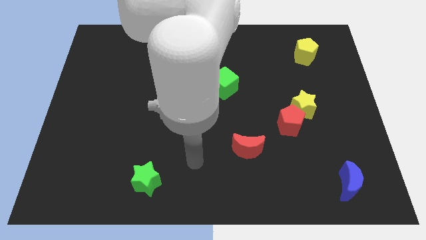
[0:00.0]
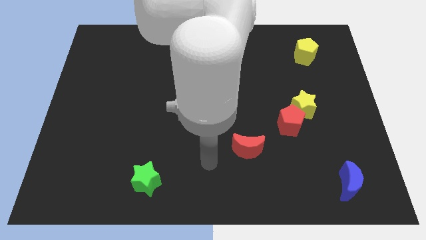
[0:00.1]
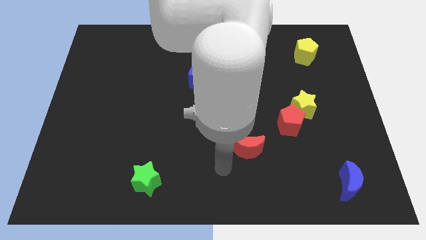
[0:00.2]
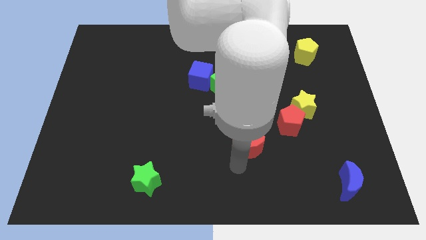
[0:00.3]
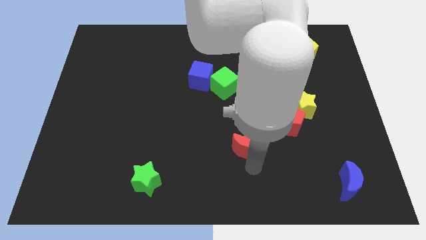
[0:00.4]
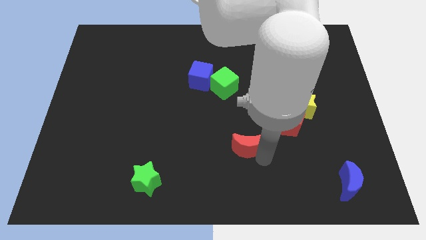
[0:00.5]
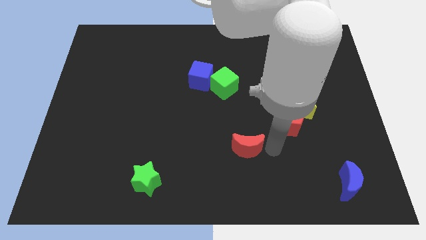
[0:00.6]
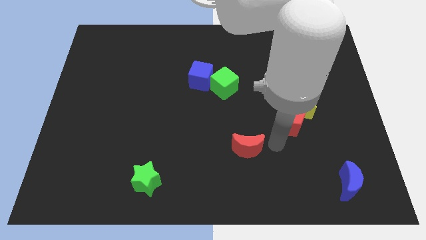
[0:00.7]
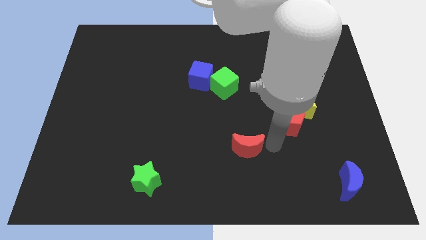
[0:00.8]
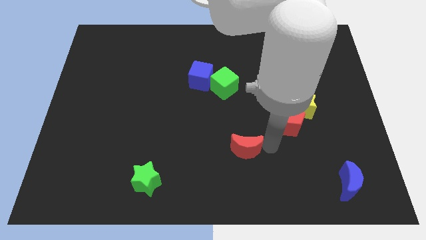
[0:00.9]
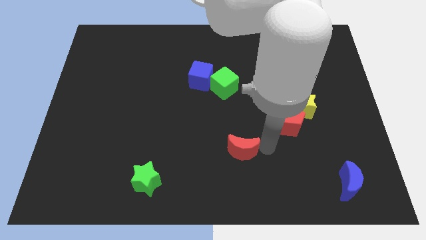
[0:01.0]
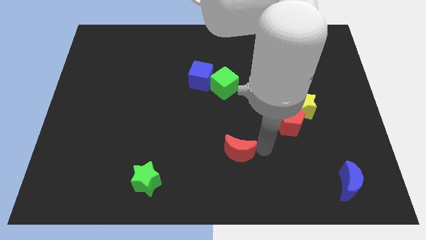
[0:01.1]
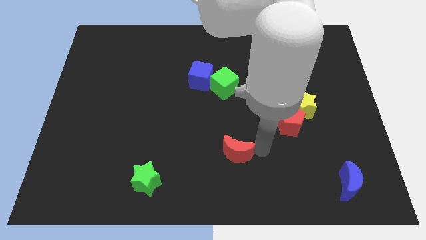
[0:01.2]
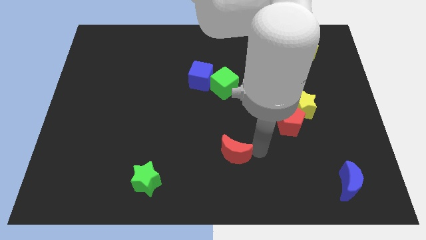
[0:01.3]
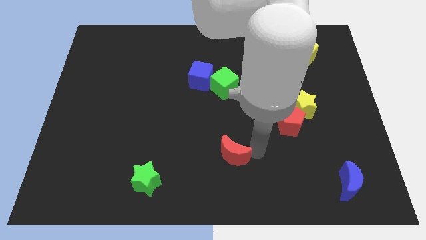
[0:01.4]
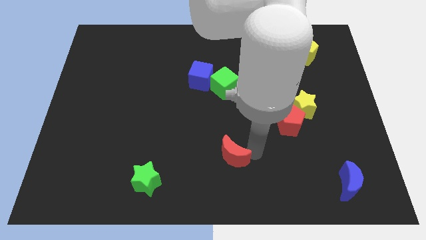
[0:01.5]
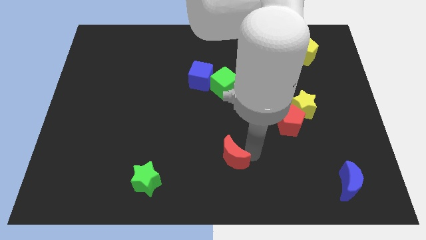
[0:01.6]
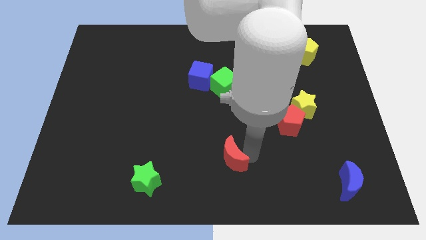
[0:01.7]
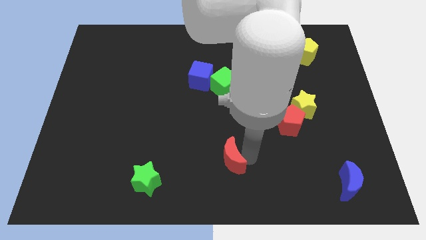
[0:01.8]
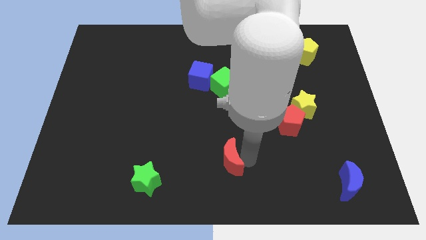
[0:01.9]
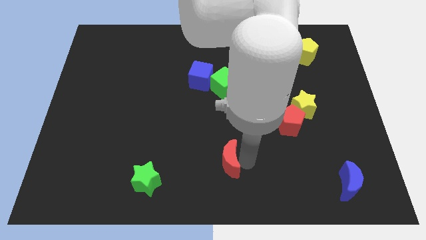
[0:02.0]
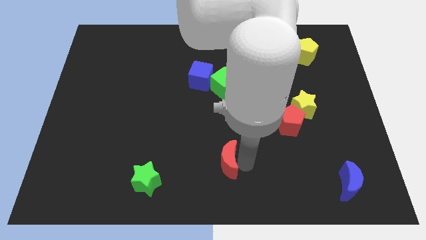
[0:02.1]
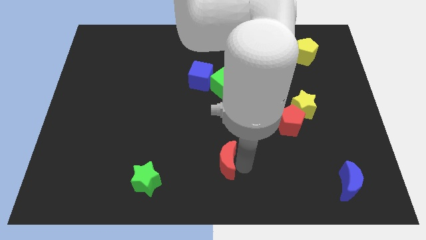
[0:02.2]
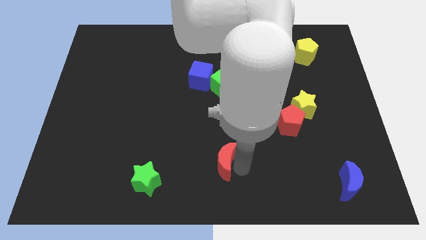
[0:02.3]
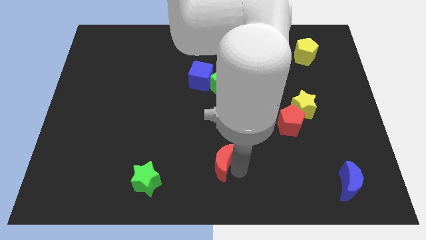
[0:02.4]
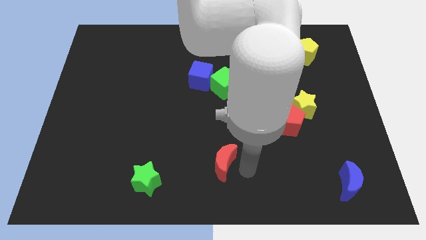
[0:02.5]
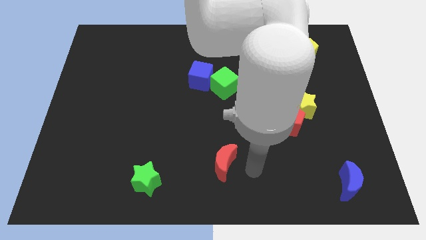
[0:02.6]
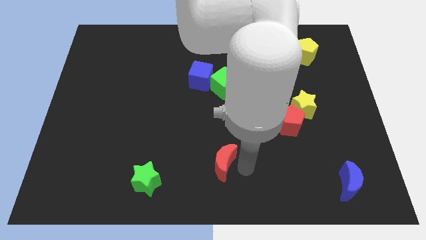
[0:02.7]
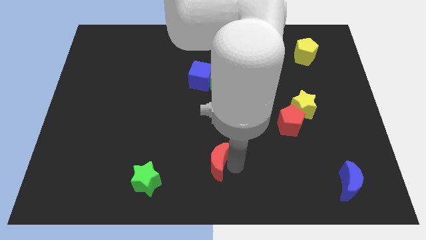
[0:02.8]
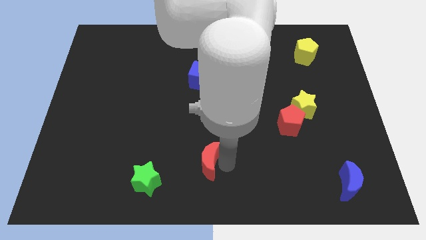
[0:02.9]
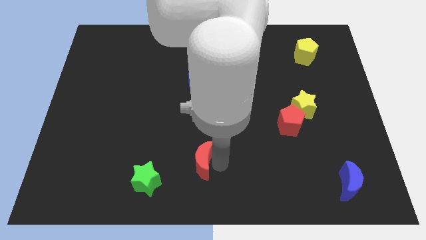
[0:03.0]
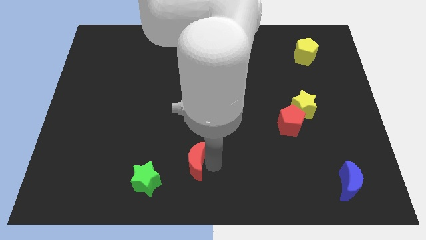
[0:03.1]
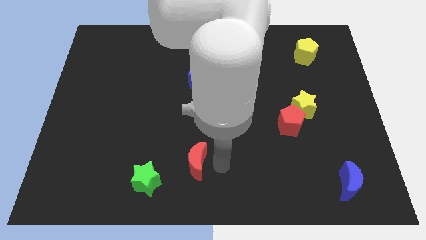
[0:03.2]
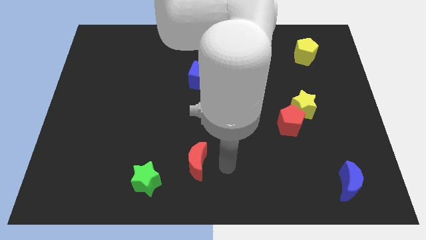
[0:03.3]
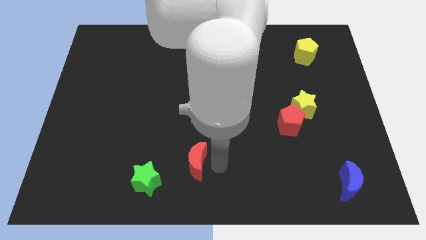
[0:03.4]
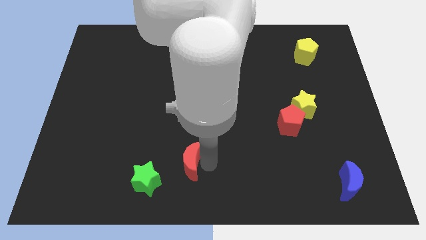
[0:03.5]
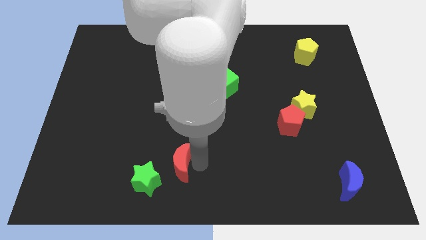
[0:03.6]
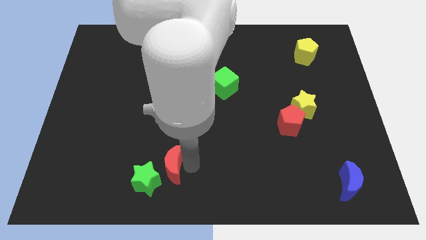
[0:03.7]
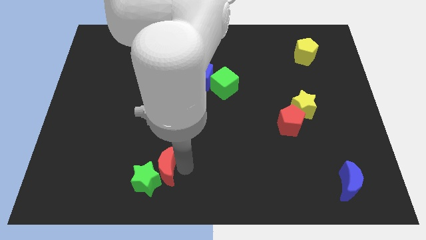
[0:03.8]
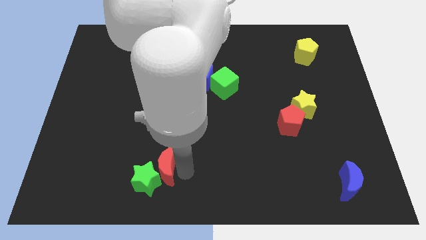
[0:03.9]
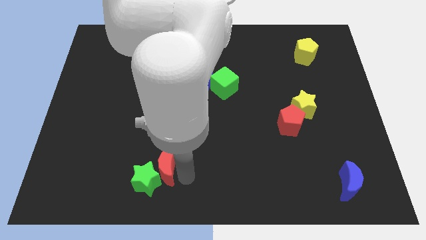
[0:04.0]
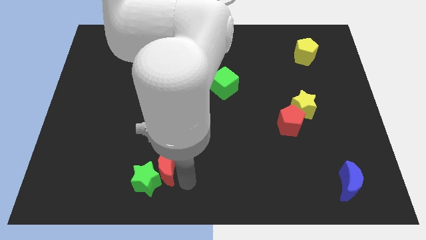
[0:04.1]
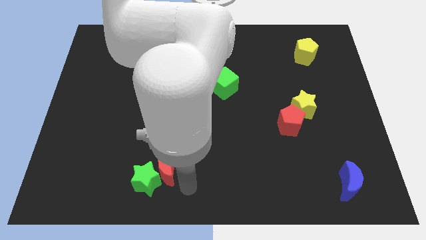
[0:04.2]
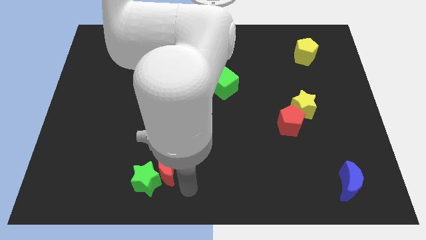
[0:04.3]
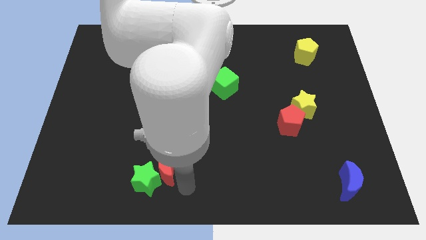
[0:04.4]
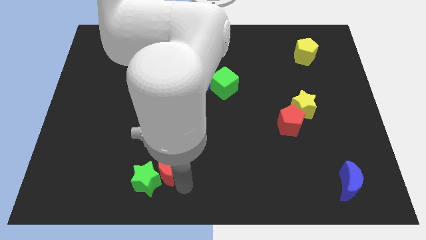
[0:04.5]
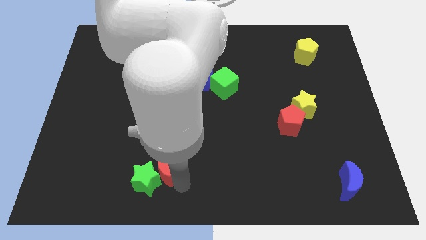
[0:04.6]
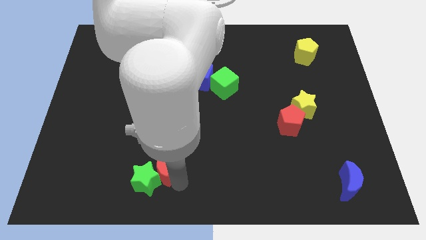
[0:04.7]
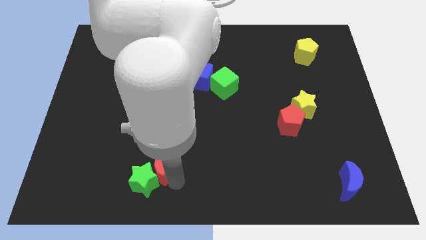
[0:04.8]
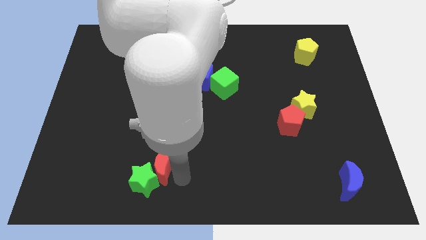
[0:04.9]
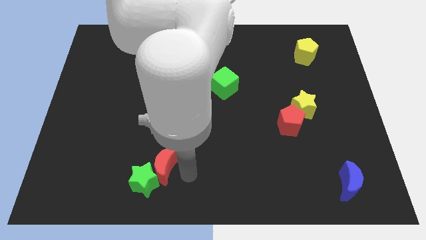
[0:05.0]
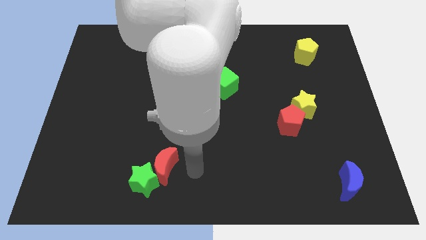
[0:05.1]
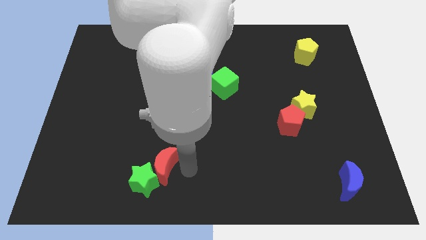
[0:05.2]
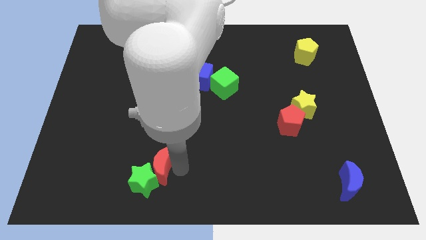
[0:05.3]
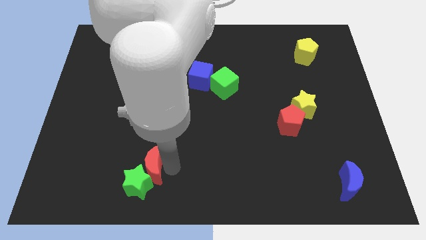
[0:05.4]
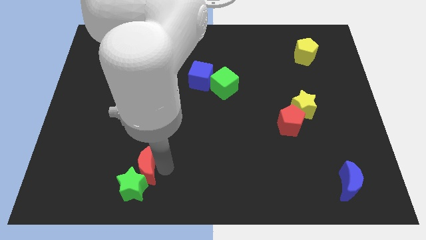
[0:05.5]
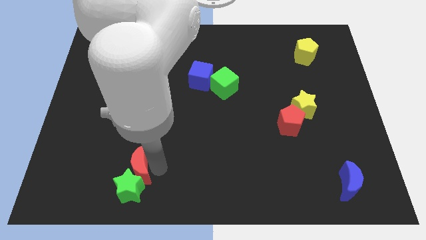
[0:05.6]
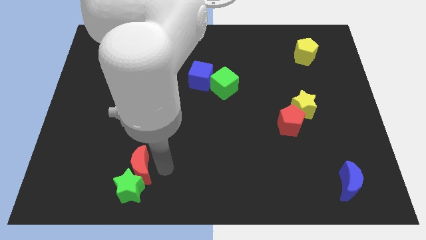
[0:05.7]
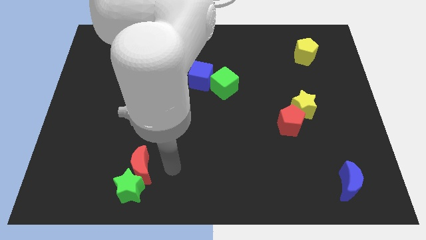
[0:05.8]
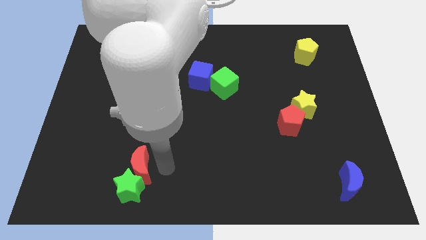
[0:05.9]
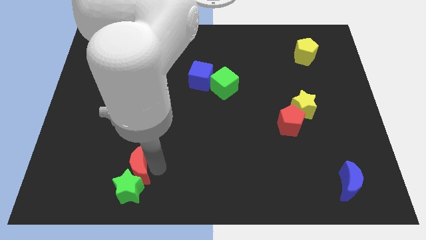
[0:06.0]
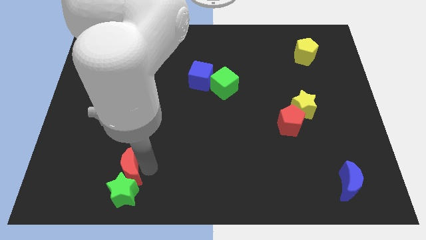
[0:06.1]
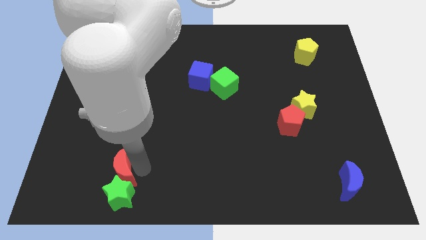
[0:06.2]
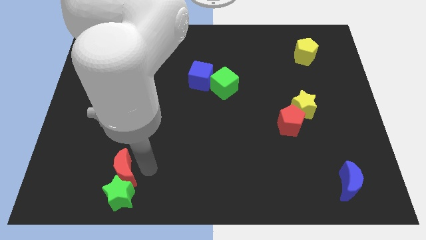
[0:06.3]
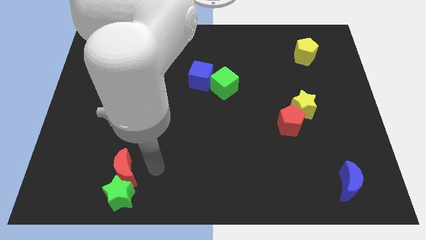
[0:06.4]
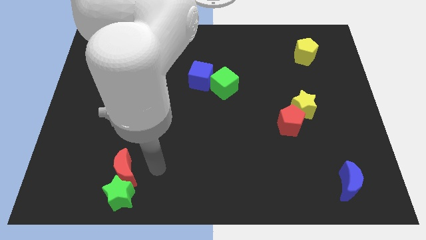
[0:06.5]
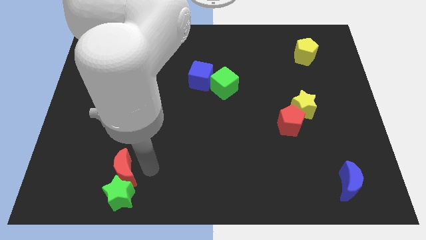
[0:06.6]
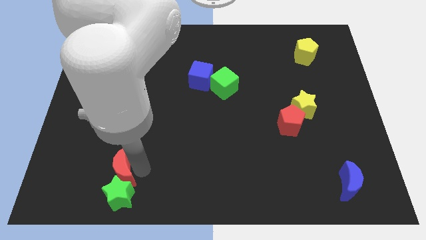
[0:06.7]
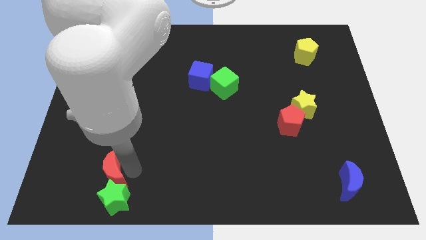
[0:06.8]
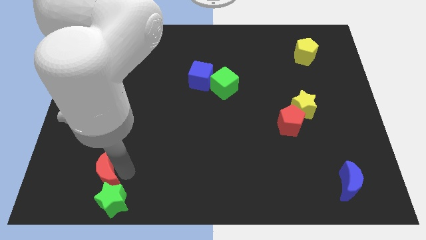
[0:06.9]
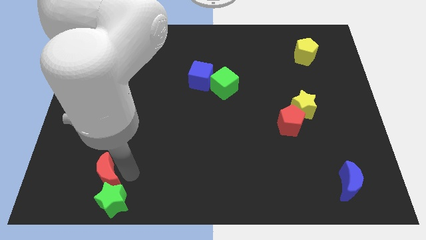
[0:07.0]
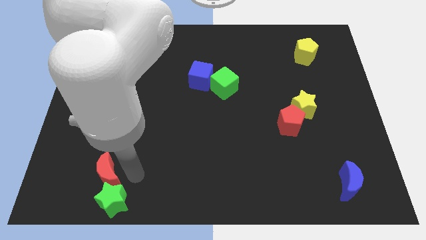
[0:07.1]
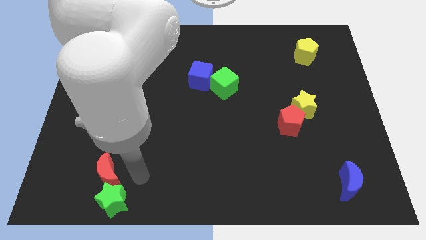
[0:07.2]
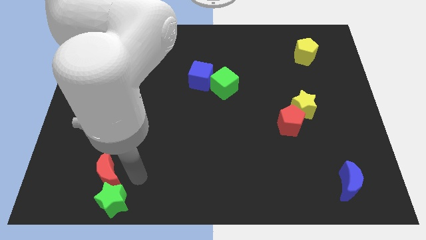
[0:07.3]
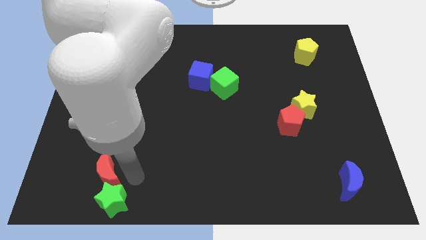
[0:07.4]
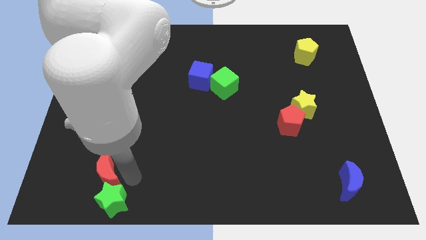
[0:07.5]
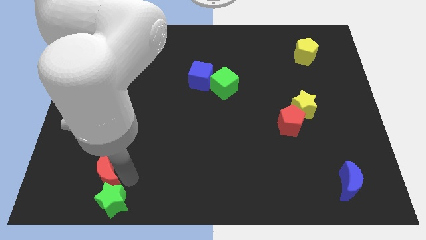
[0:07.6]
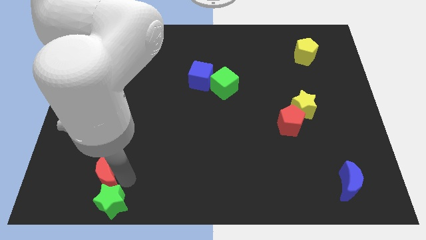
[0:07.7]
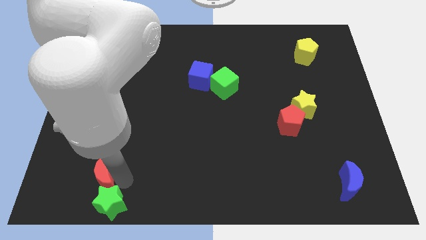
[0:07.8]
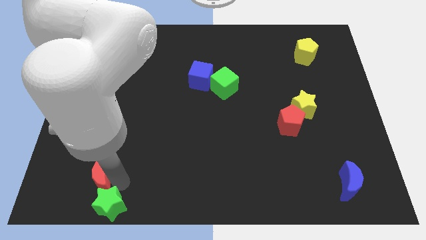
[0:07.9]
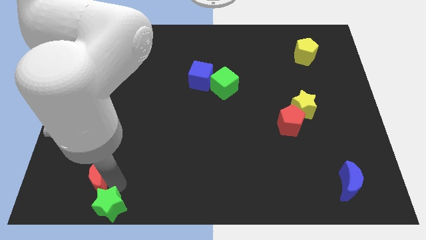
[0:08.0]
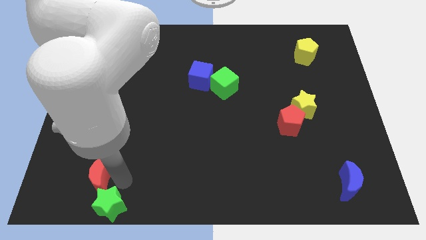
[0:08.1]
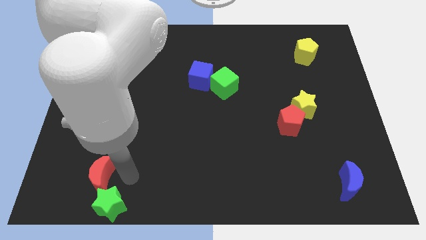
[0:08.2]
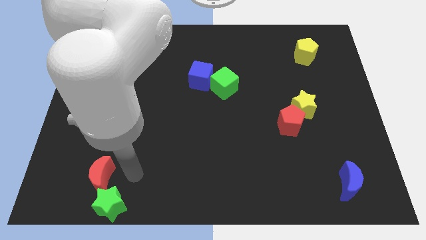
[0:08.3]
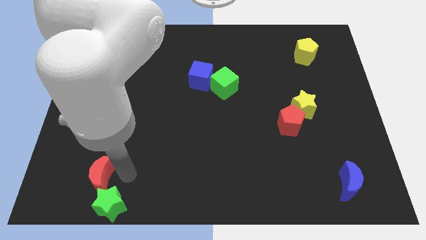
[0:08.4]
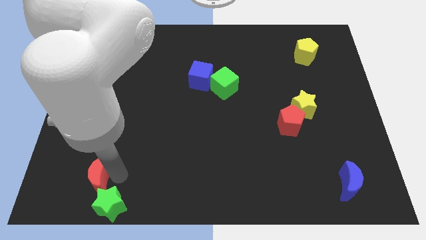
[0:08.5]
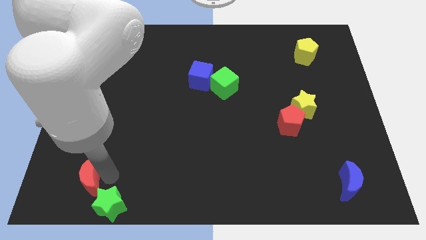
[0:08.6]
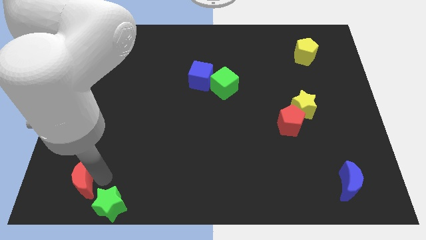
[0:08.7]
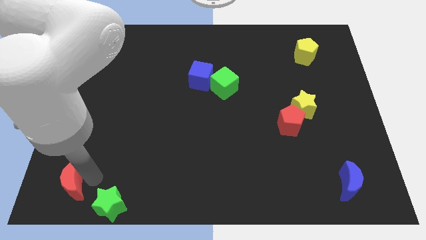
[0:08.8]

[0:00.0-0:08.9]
put the red moon to the bottom left
